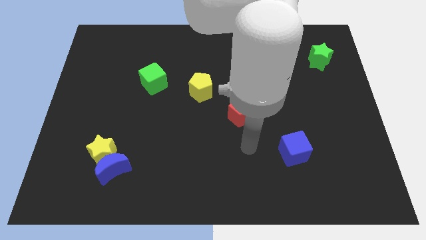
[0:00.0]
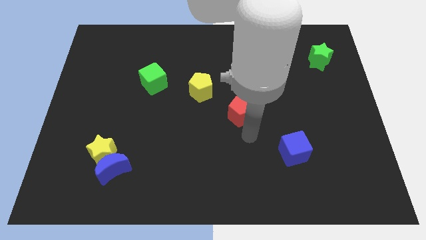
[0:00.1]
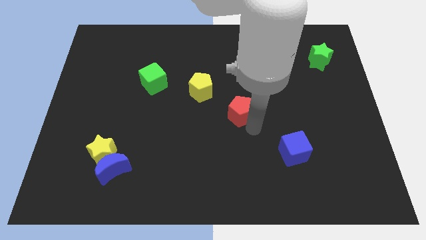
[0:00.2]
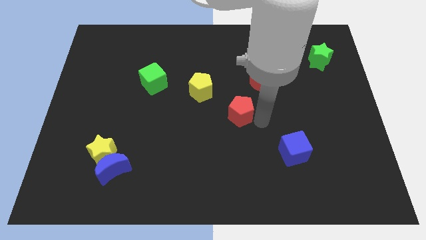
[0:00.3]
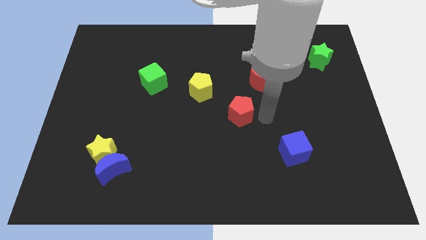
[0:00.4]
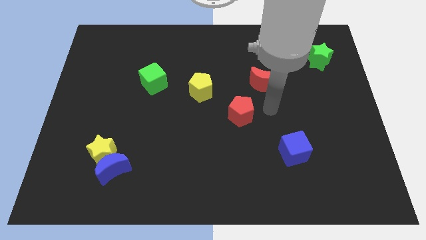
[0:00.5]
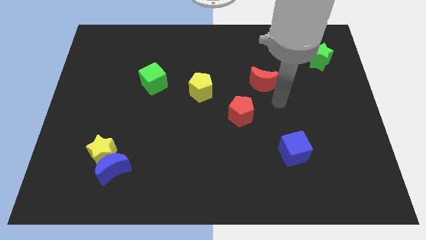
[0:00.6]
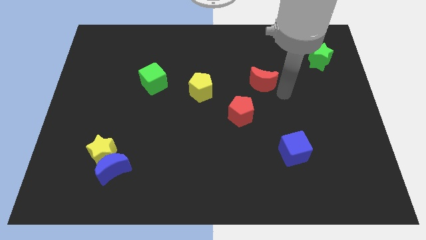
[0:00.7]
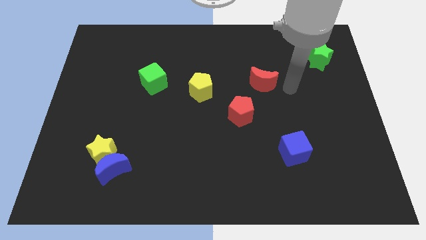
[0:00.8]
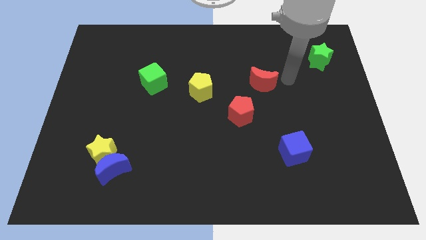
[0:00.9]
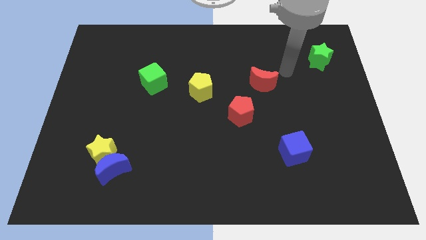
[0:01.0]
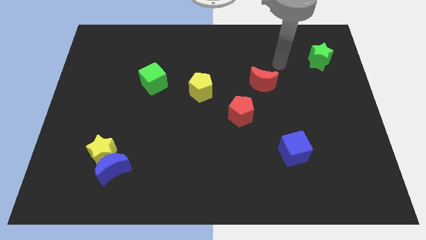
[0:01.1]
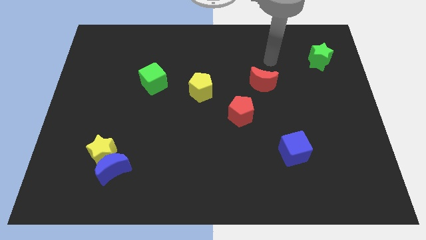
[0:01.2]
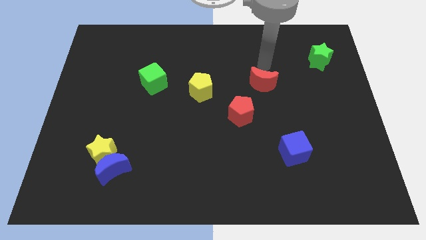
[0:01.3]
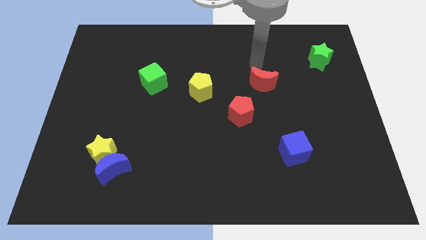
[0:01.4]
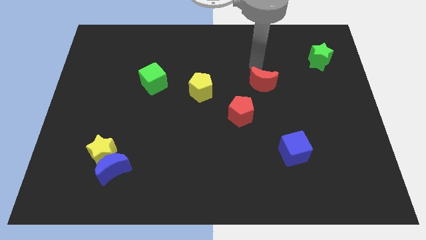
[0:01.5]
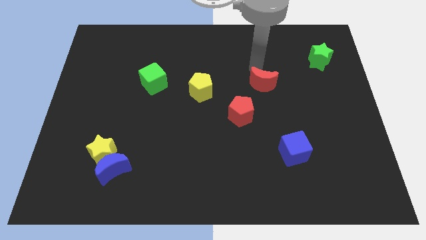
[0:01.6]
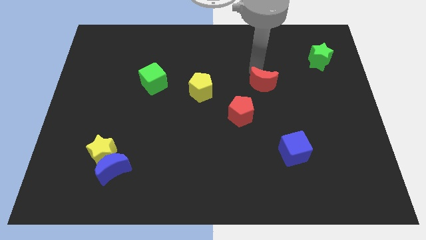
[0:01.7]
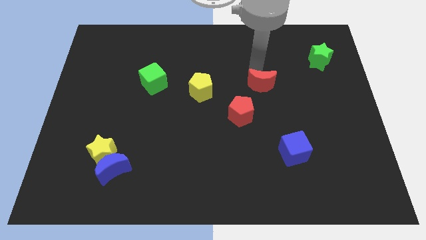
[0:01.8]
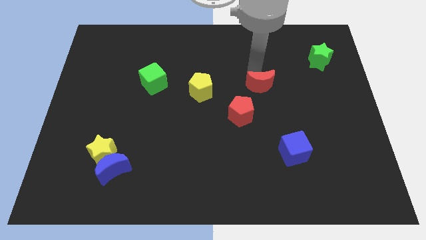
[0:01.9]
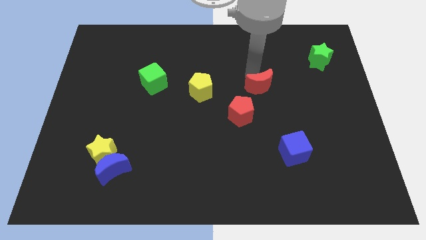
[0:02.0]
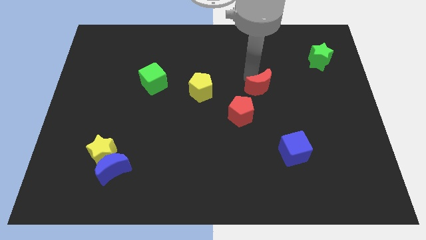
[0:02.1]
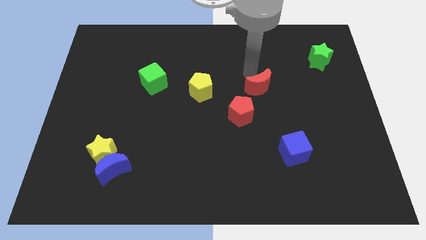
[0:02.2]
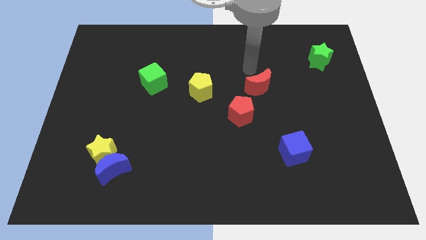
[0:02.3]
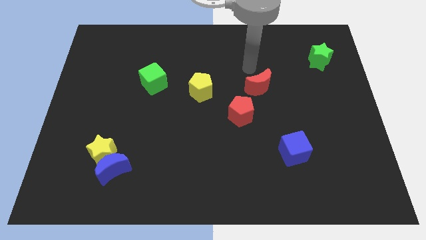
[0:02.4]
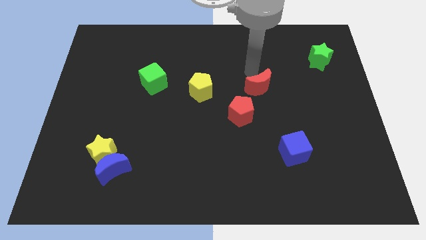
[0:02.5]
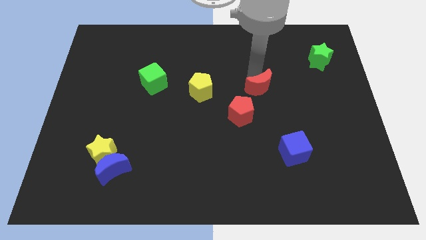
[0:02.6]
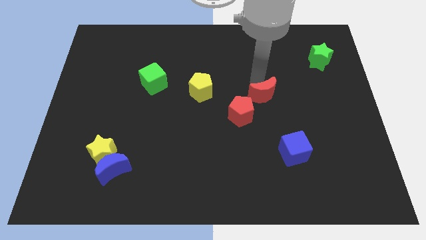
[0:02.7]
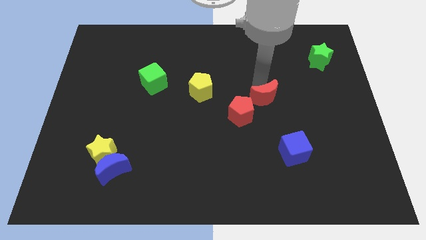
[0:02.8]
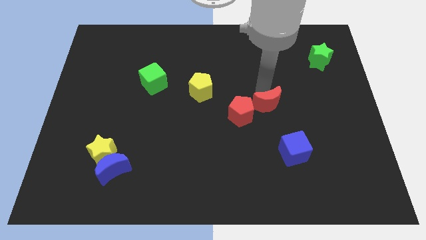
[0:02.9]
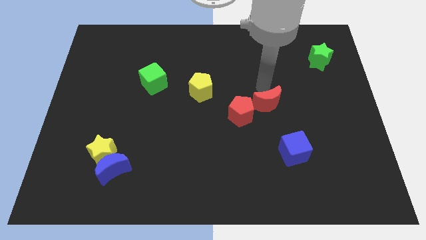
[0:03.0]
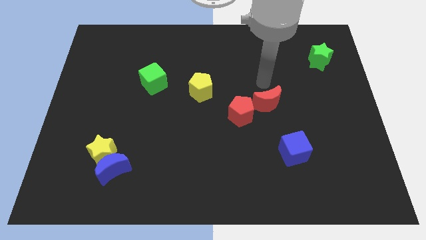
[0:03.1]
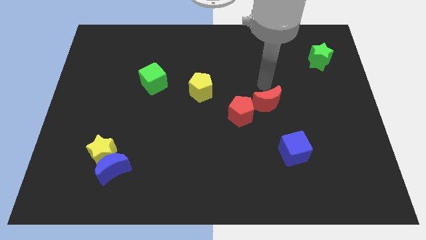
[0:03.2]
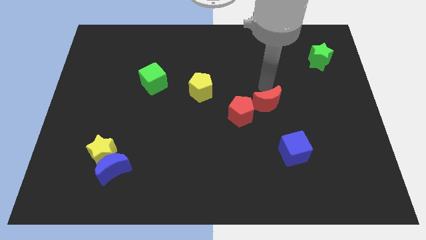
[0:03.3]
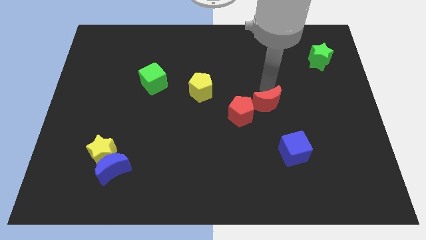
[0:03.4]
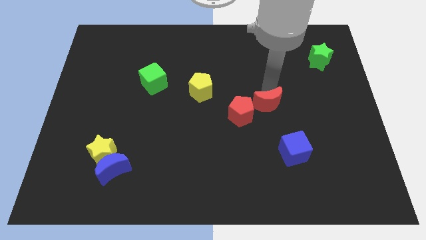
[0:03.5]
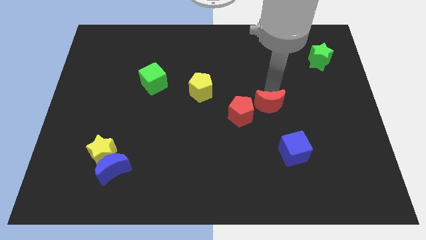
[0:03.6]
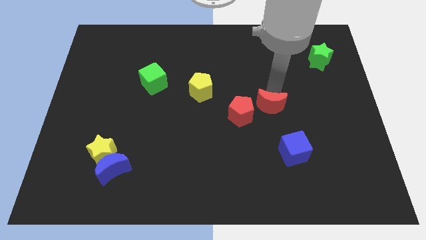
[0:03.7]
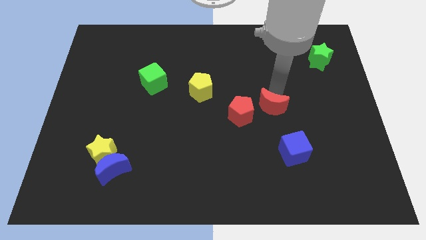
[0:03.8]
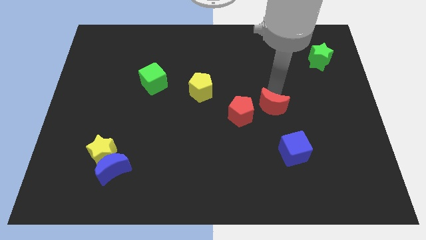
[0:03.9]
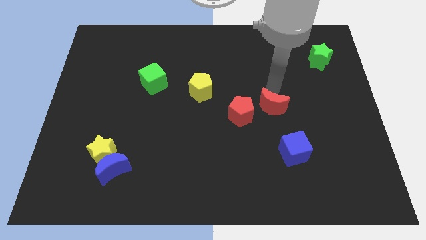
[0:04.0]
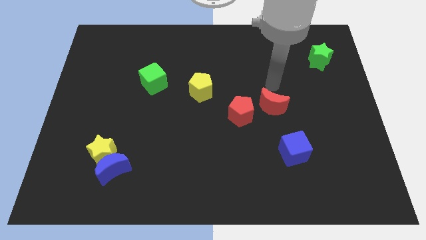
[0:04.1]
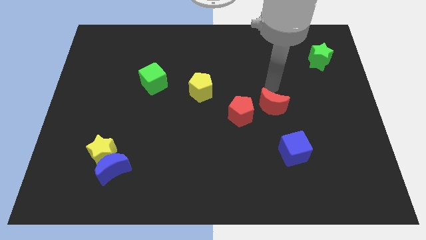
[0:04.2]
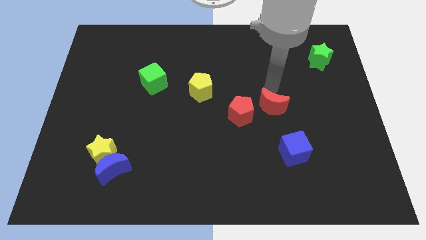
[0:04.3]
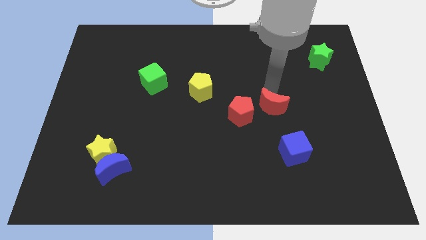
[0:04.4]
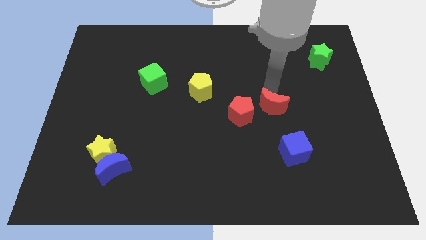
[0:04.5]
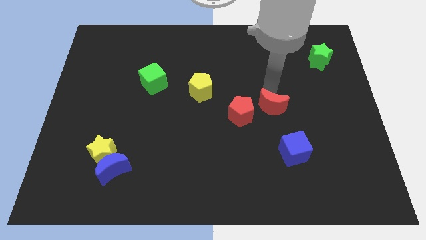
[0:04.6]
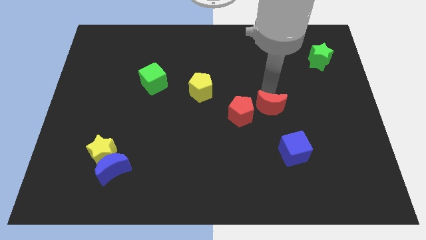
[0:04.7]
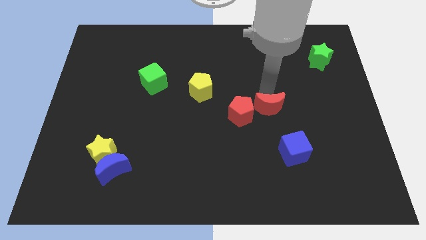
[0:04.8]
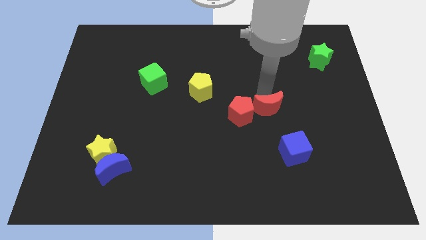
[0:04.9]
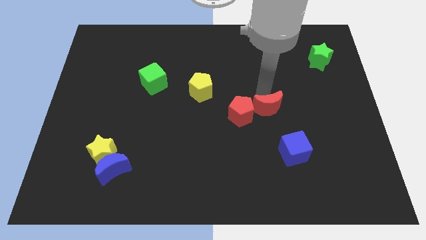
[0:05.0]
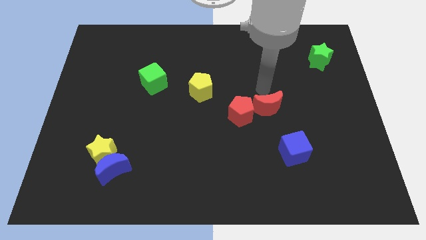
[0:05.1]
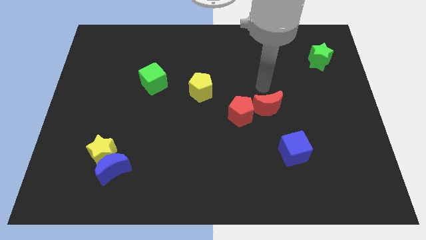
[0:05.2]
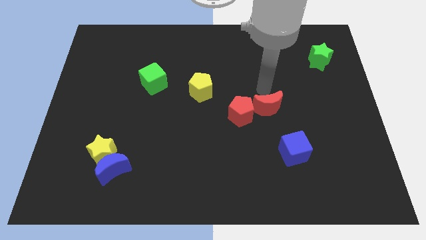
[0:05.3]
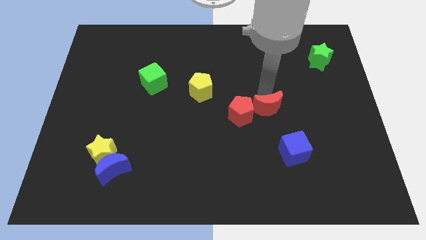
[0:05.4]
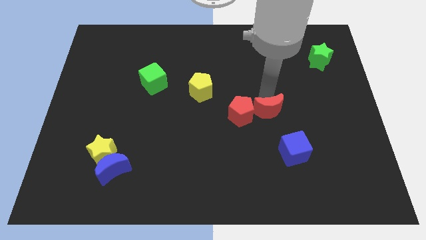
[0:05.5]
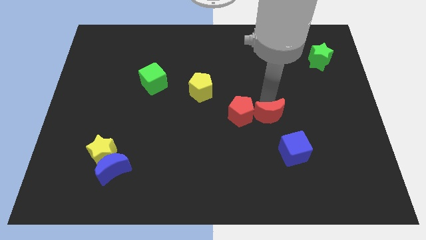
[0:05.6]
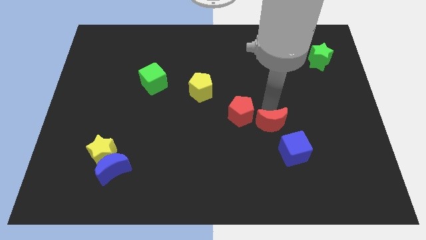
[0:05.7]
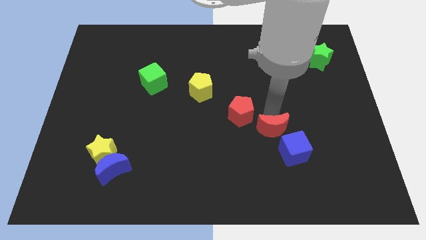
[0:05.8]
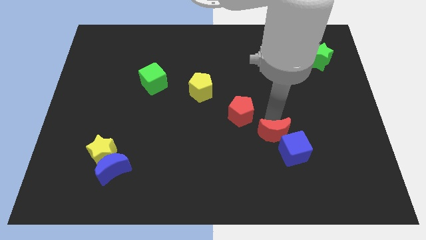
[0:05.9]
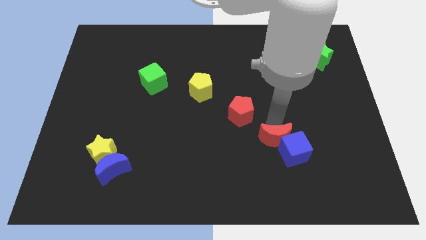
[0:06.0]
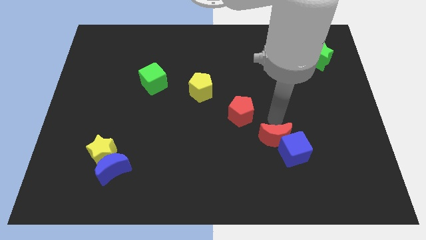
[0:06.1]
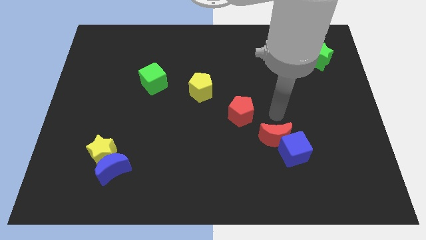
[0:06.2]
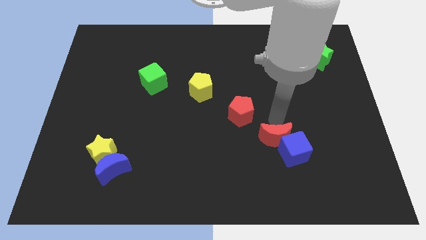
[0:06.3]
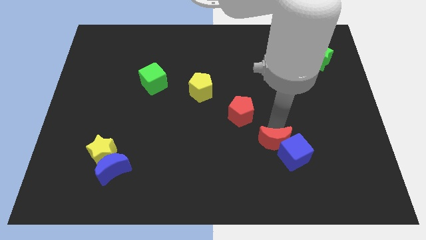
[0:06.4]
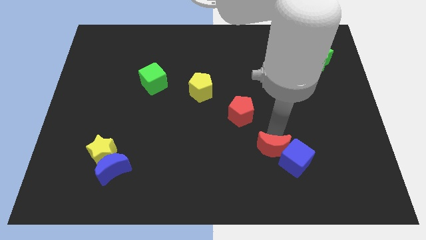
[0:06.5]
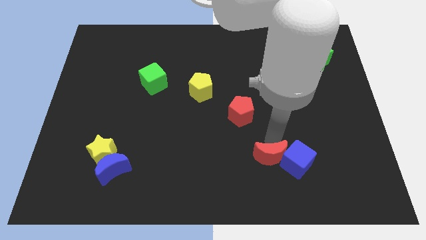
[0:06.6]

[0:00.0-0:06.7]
move the red moon diagonally down and to the left of the blue cube
